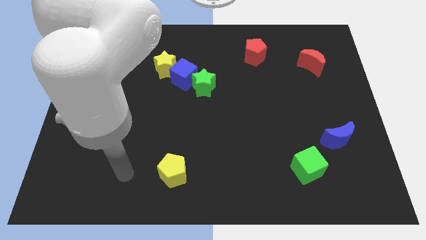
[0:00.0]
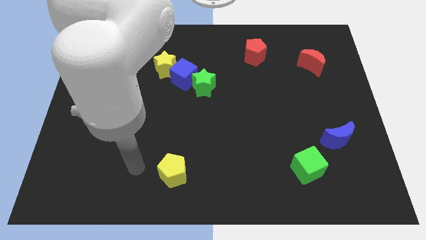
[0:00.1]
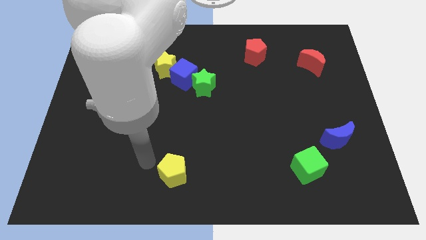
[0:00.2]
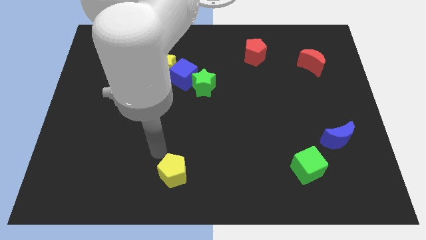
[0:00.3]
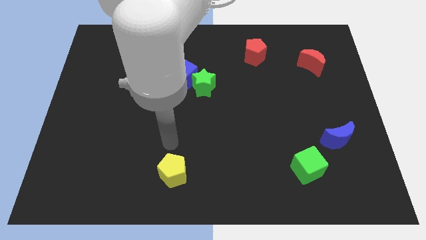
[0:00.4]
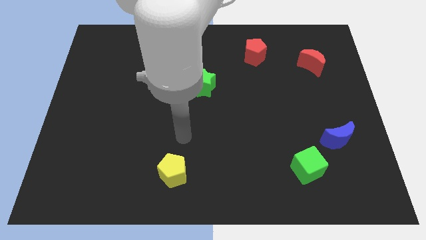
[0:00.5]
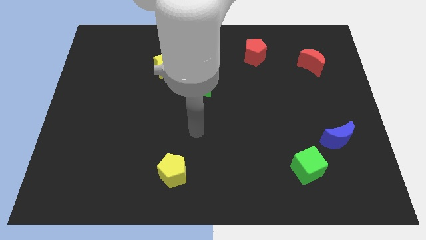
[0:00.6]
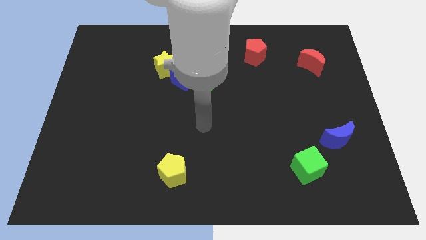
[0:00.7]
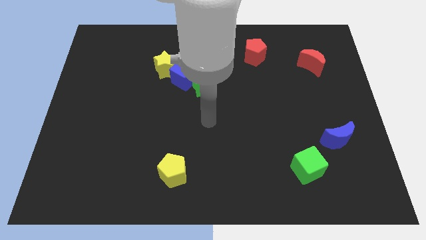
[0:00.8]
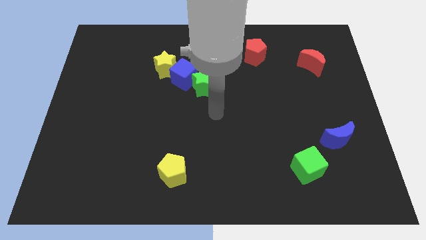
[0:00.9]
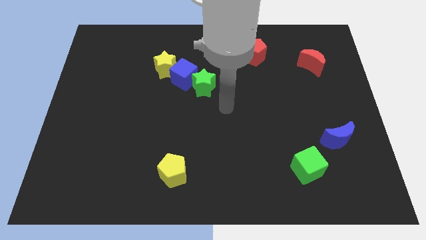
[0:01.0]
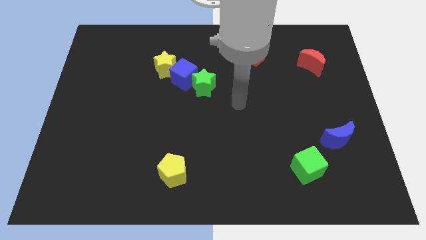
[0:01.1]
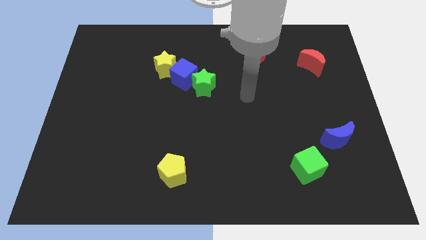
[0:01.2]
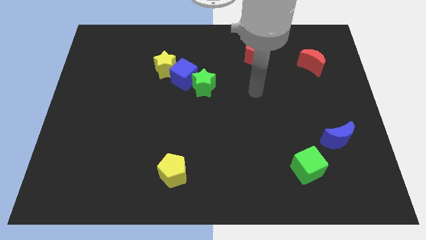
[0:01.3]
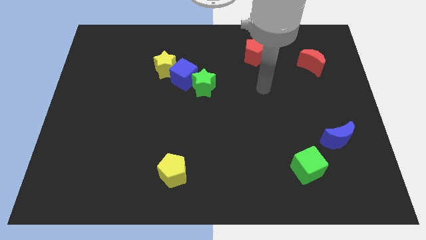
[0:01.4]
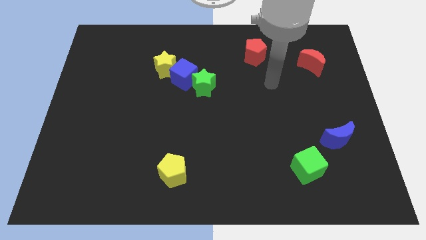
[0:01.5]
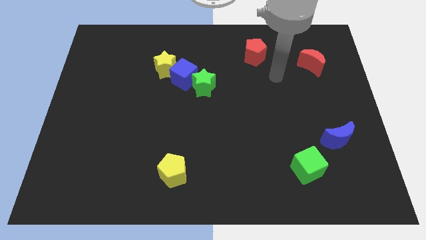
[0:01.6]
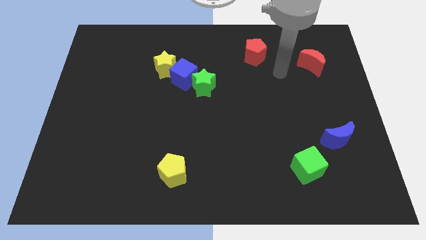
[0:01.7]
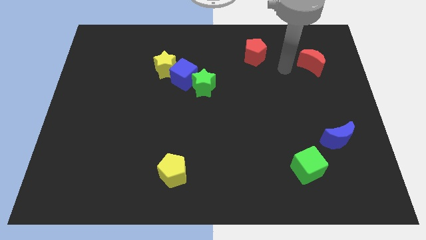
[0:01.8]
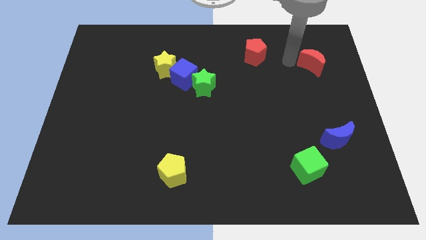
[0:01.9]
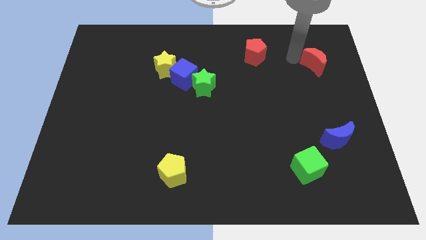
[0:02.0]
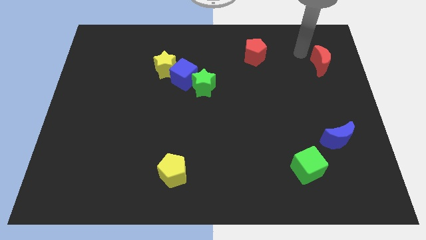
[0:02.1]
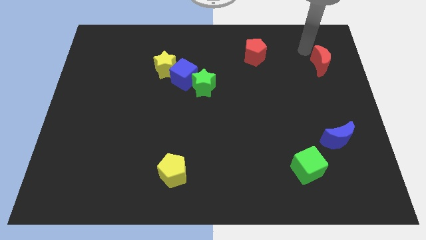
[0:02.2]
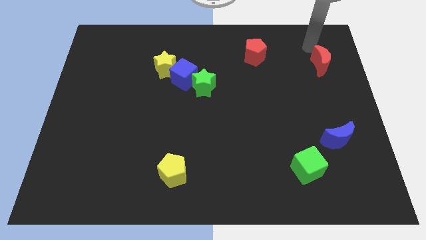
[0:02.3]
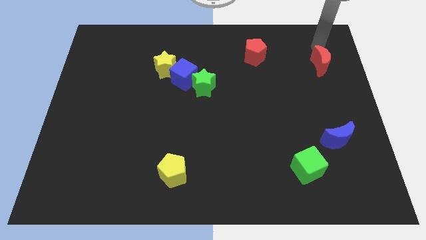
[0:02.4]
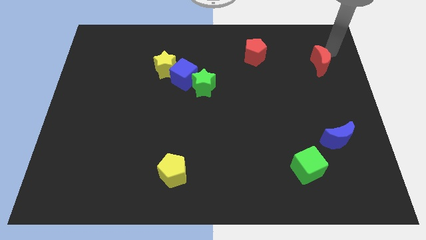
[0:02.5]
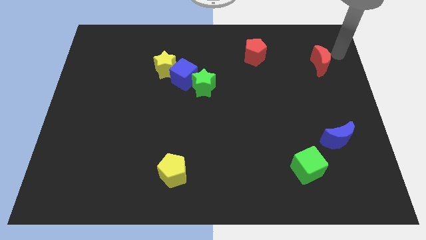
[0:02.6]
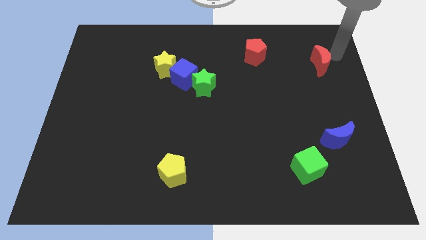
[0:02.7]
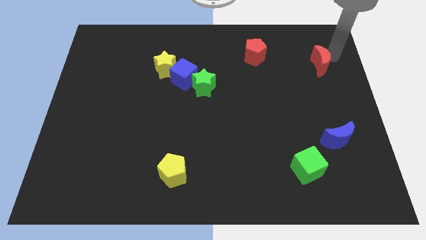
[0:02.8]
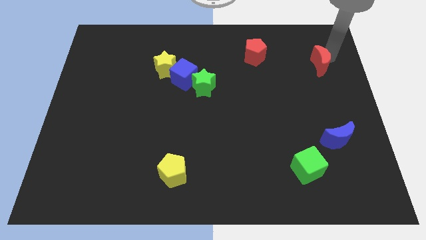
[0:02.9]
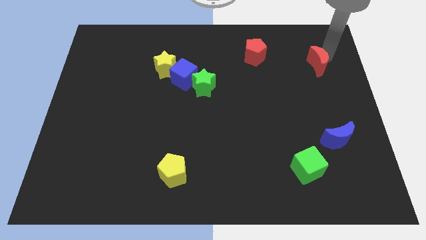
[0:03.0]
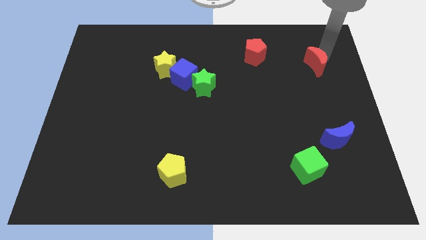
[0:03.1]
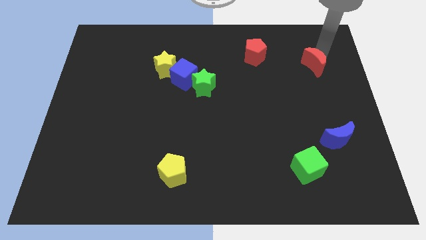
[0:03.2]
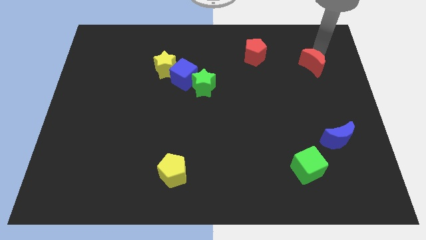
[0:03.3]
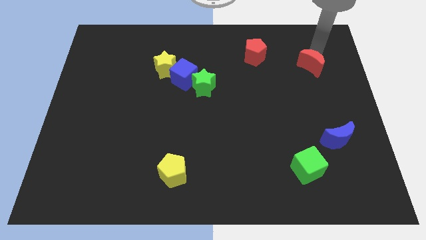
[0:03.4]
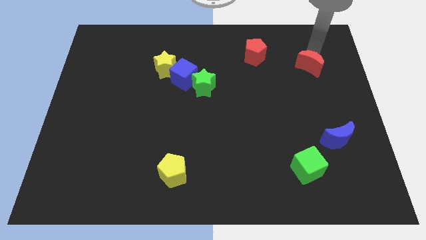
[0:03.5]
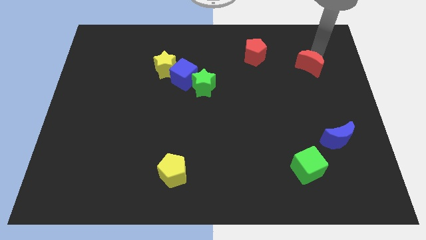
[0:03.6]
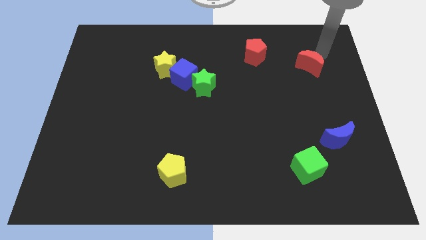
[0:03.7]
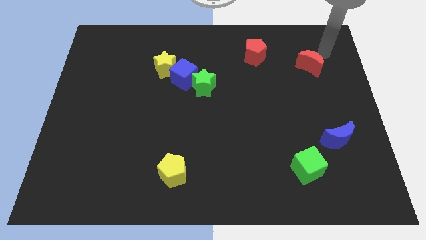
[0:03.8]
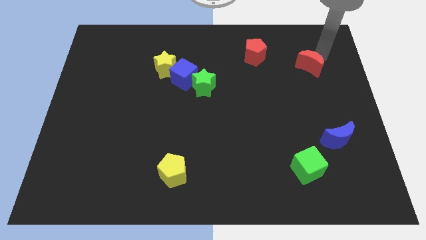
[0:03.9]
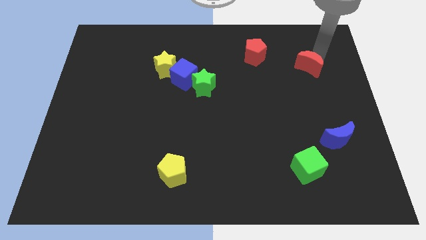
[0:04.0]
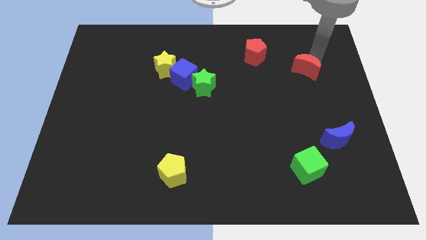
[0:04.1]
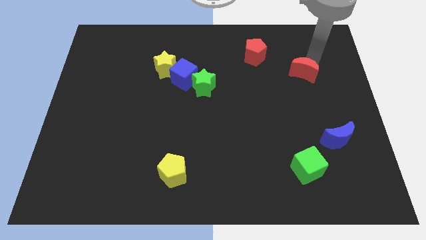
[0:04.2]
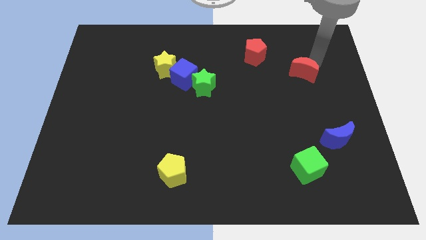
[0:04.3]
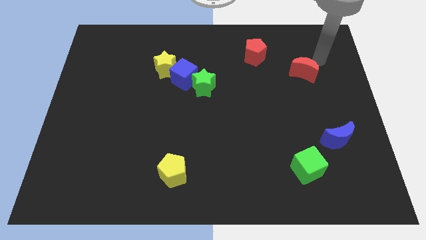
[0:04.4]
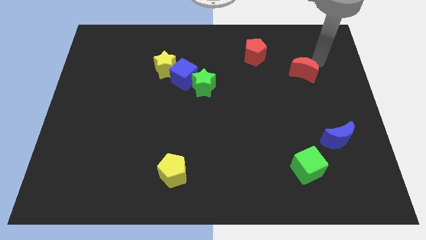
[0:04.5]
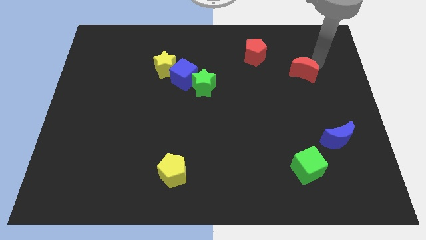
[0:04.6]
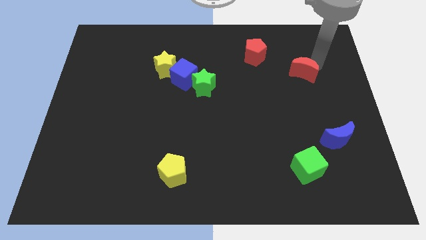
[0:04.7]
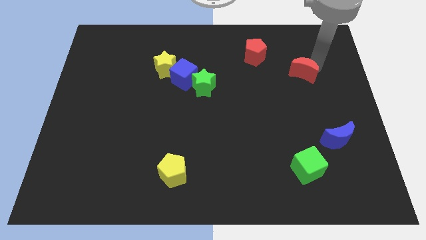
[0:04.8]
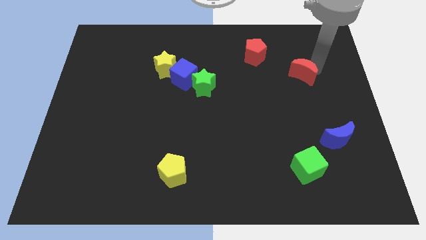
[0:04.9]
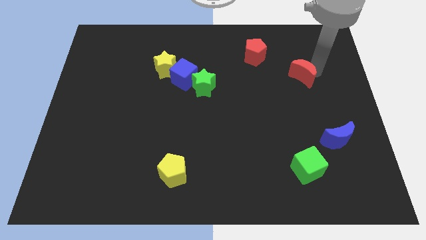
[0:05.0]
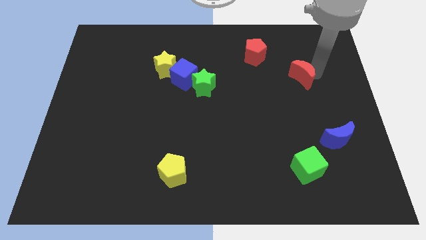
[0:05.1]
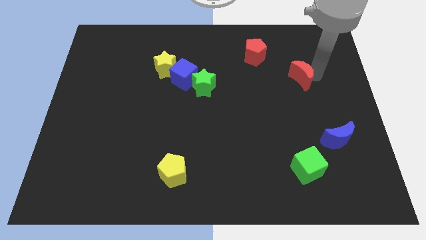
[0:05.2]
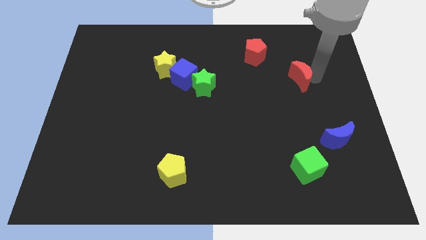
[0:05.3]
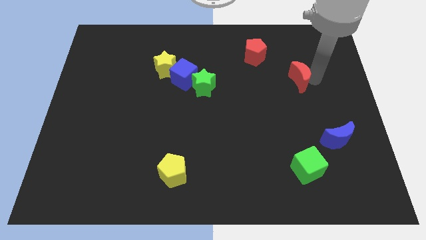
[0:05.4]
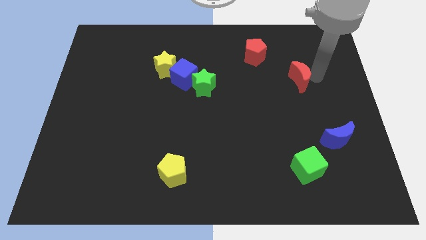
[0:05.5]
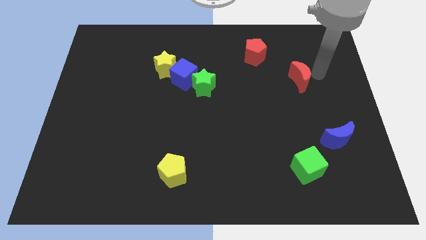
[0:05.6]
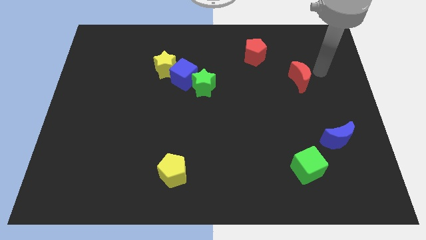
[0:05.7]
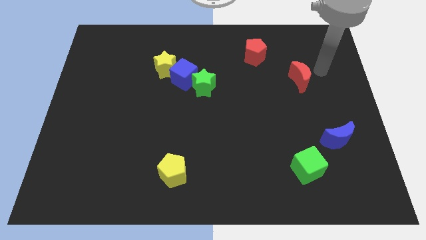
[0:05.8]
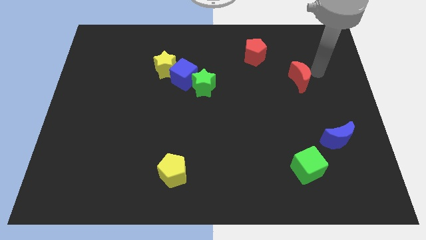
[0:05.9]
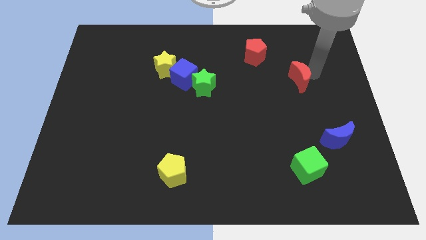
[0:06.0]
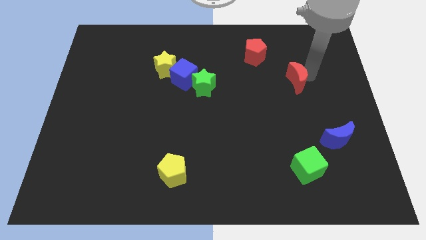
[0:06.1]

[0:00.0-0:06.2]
slide the red moon downwards and to the left a little

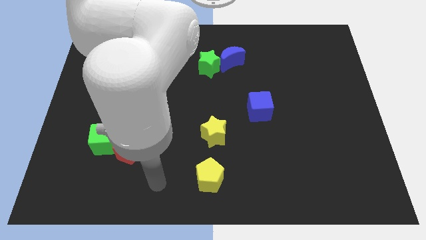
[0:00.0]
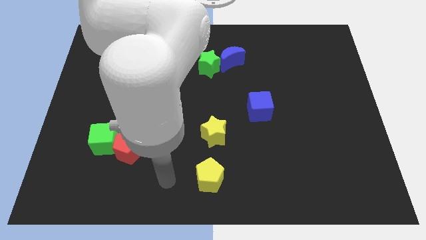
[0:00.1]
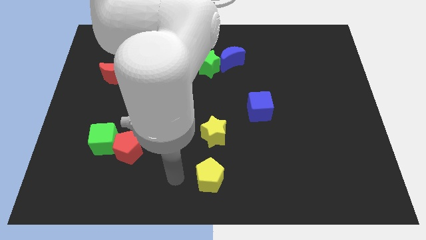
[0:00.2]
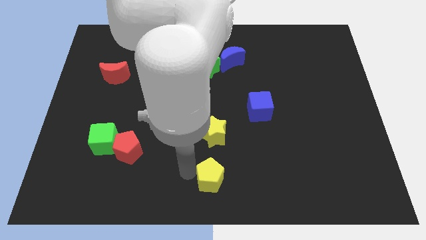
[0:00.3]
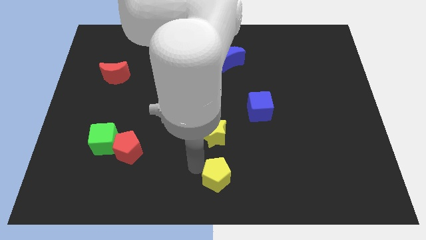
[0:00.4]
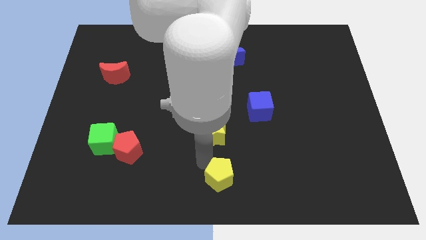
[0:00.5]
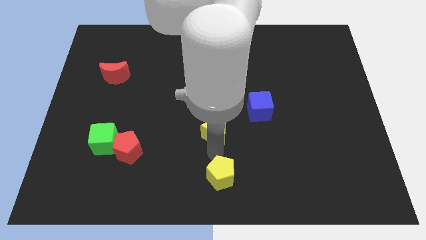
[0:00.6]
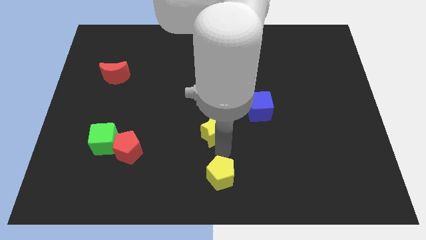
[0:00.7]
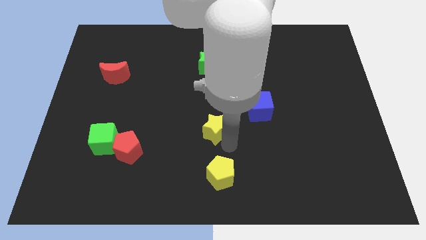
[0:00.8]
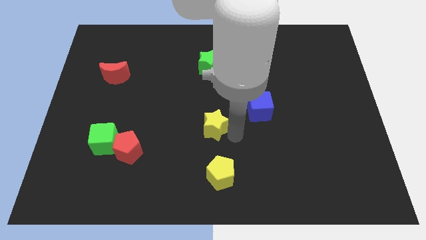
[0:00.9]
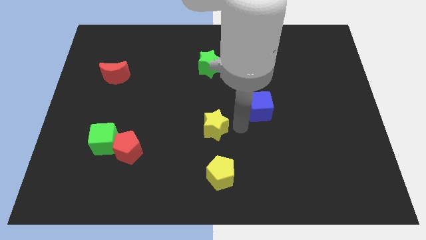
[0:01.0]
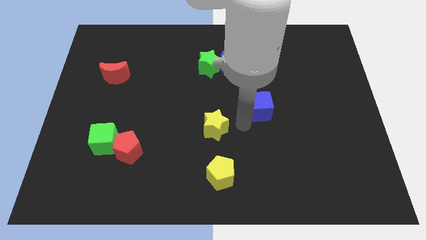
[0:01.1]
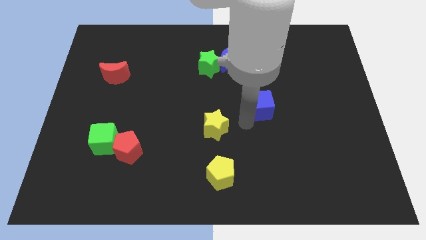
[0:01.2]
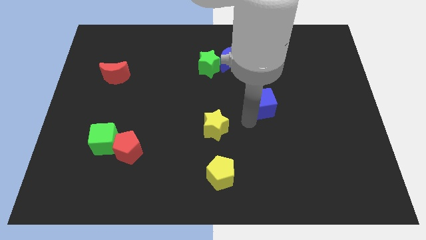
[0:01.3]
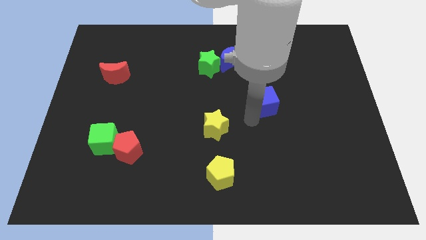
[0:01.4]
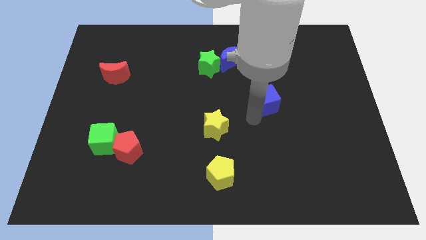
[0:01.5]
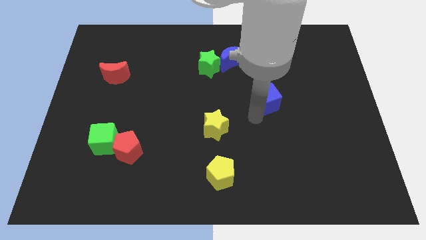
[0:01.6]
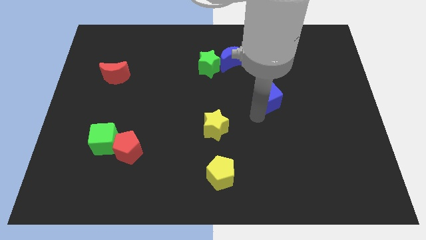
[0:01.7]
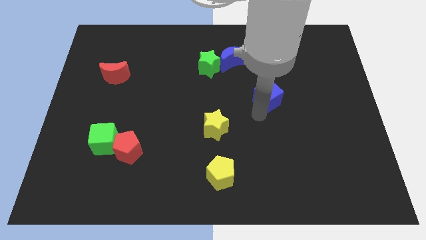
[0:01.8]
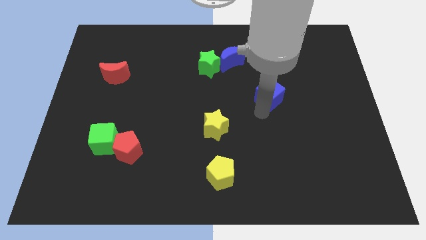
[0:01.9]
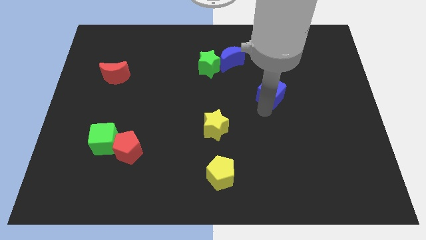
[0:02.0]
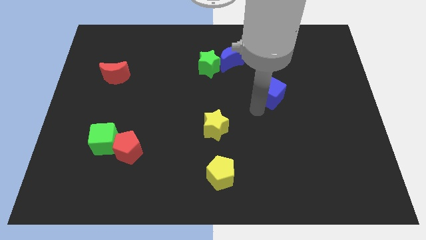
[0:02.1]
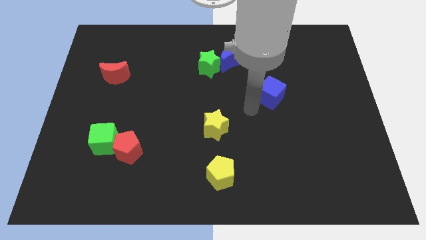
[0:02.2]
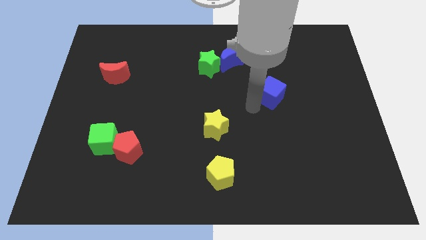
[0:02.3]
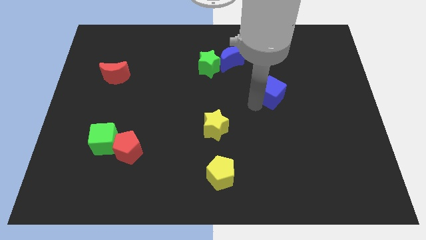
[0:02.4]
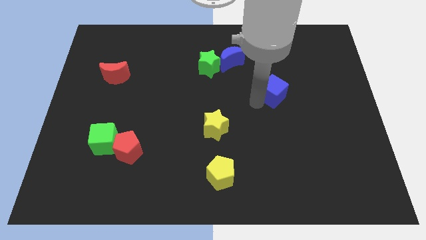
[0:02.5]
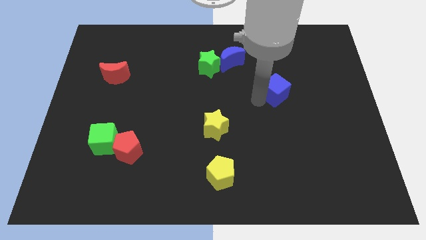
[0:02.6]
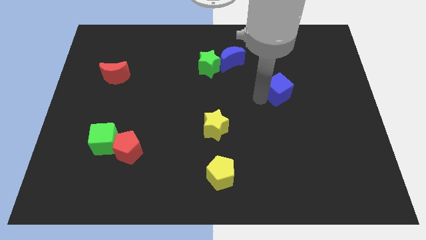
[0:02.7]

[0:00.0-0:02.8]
move the blue cube up and to the right somewhat
